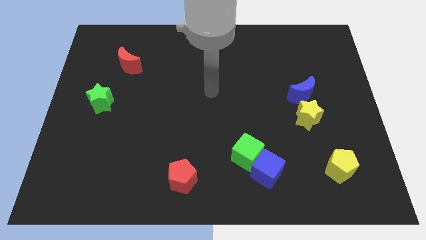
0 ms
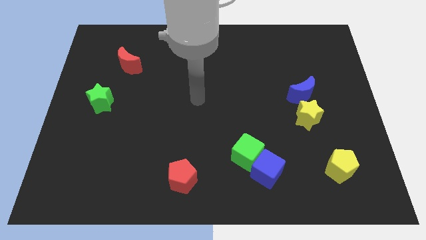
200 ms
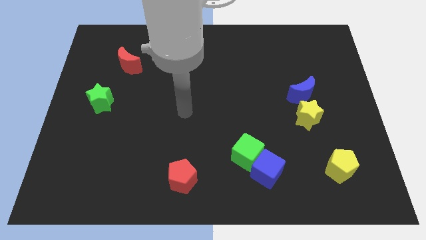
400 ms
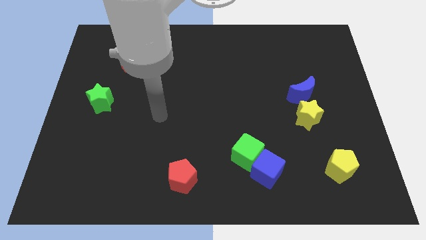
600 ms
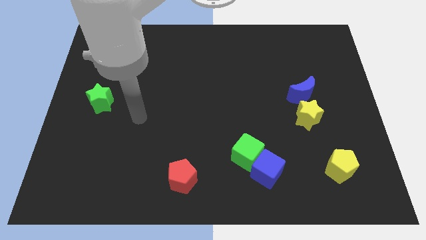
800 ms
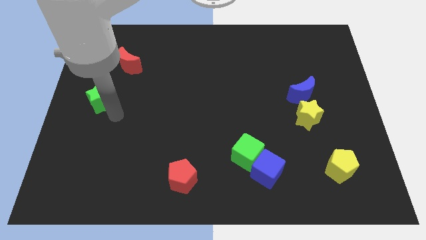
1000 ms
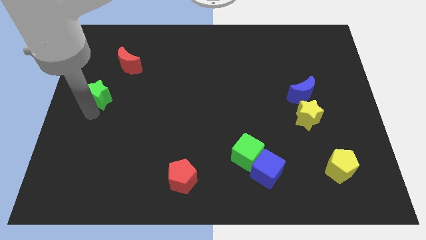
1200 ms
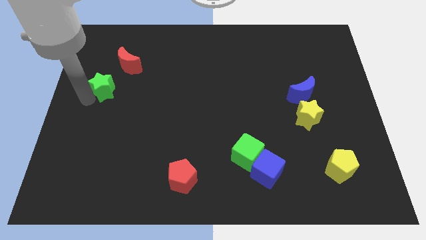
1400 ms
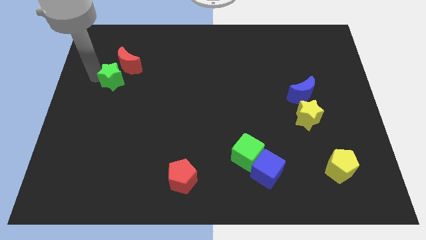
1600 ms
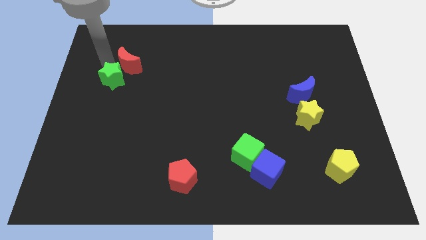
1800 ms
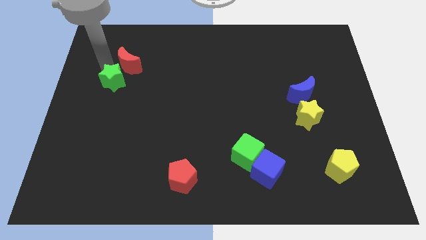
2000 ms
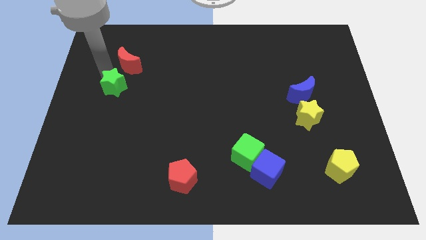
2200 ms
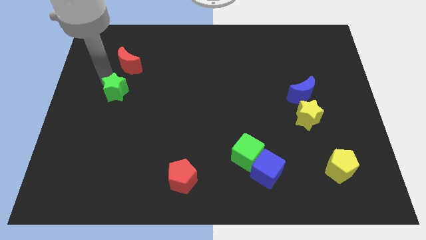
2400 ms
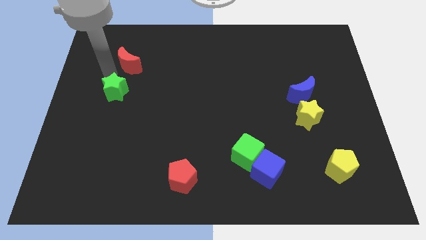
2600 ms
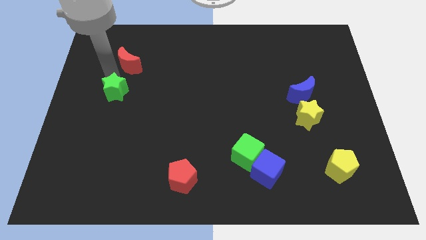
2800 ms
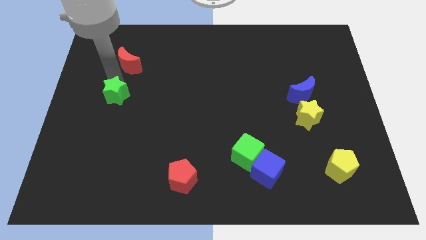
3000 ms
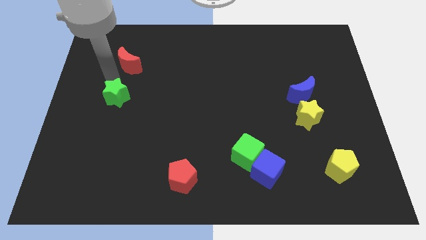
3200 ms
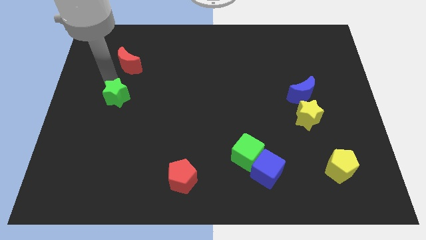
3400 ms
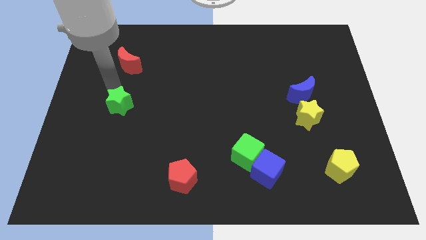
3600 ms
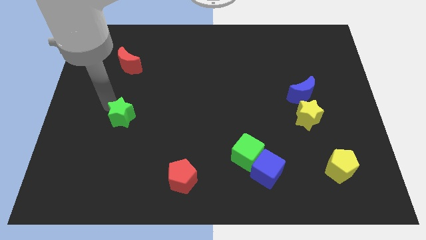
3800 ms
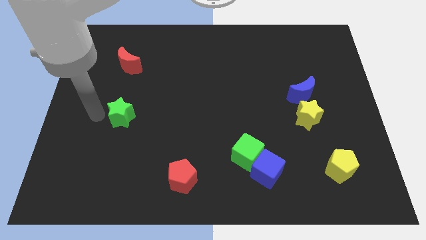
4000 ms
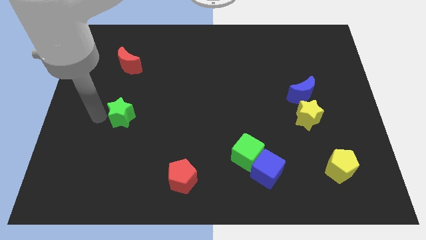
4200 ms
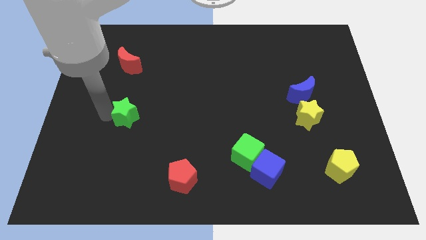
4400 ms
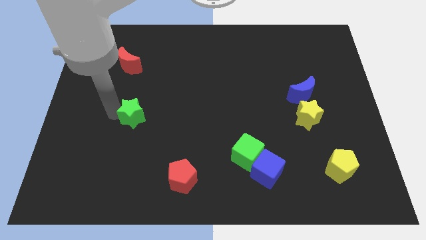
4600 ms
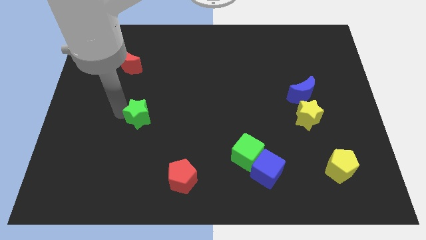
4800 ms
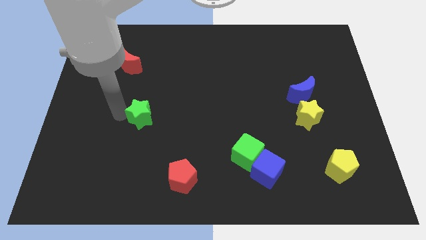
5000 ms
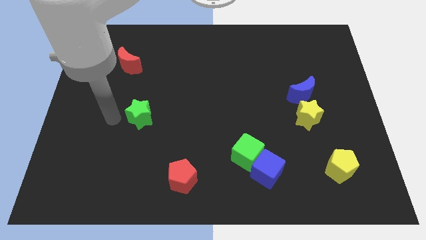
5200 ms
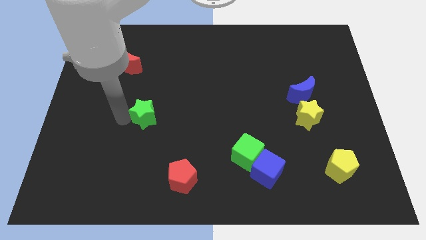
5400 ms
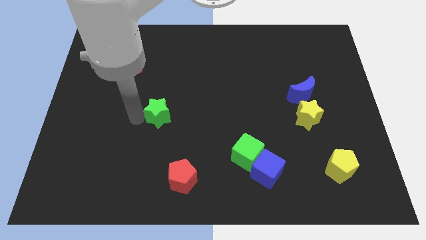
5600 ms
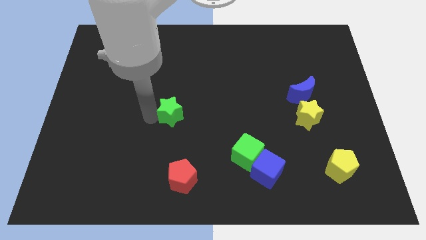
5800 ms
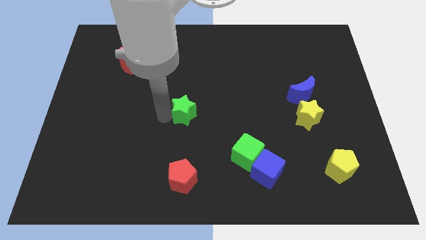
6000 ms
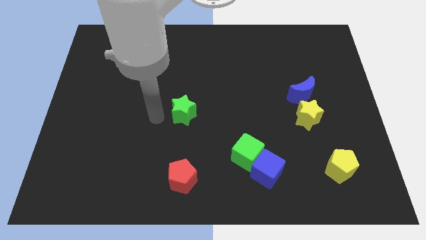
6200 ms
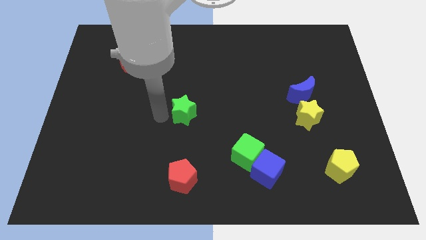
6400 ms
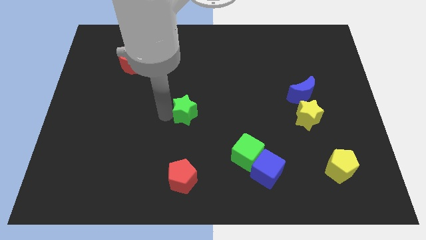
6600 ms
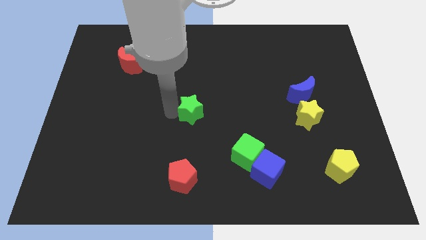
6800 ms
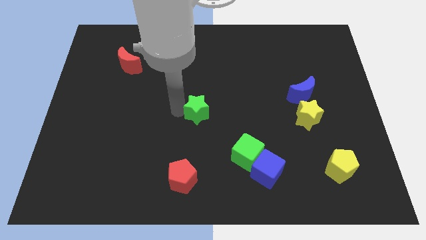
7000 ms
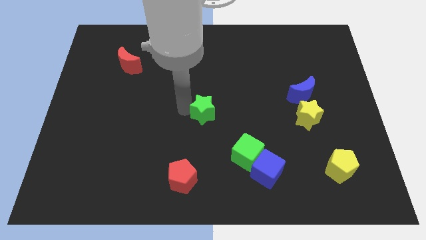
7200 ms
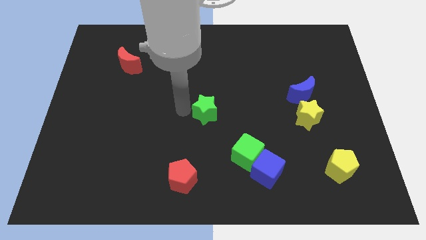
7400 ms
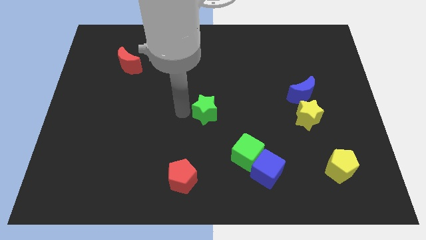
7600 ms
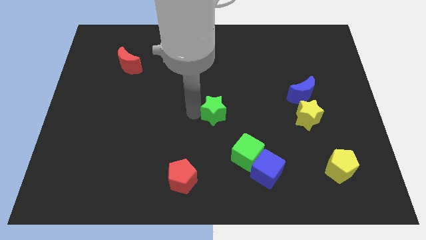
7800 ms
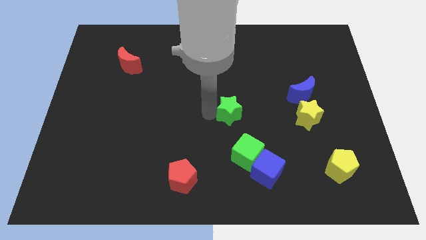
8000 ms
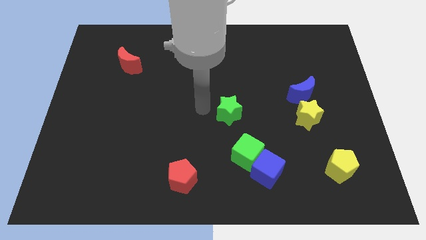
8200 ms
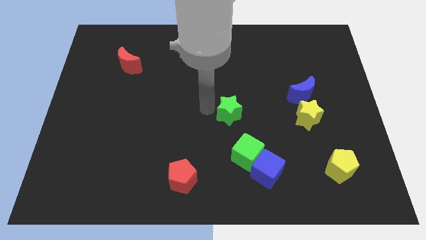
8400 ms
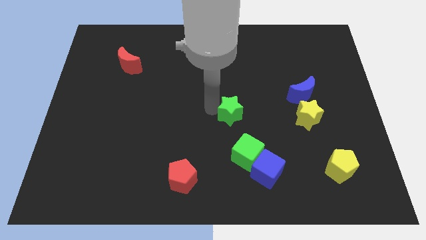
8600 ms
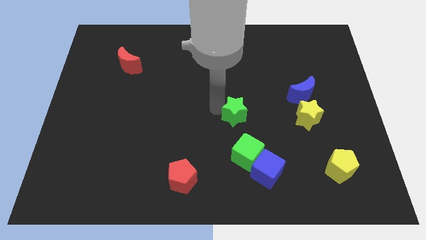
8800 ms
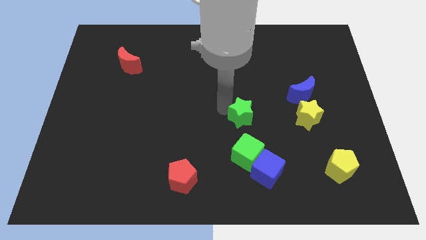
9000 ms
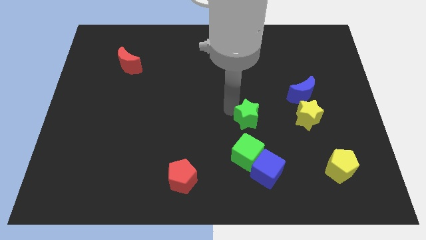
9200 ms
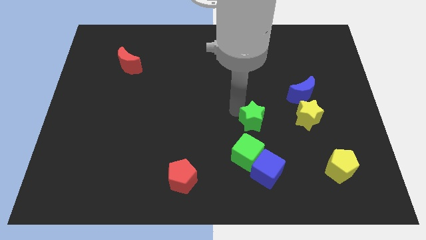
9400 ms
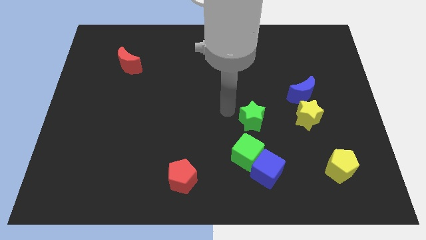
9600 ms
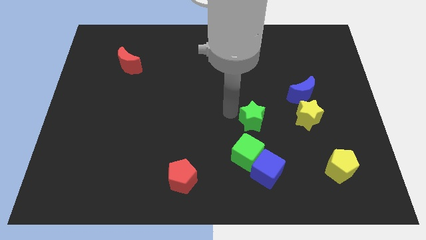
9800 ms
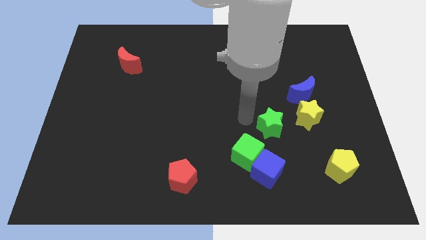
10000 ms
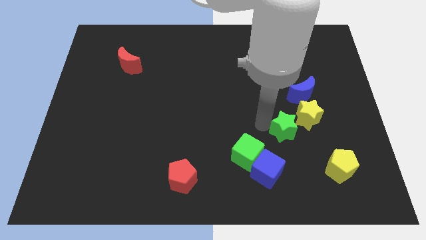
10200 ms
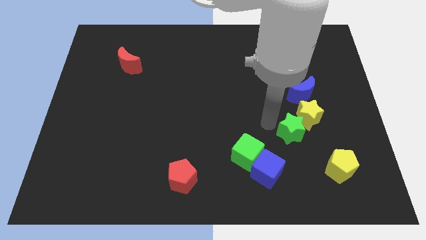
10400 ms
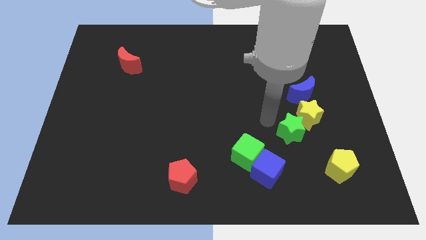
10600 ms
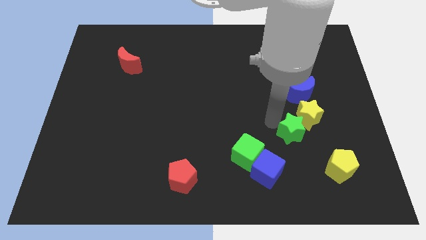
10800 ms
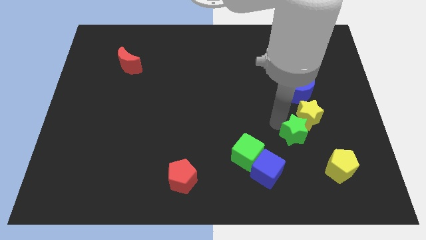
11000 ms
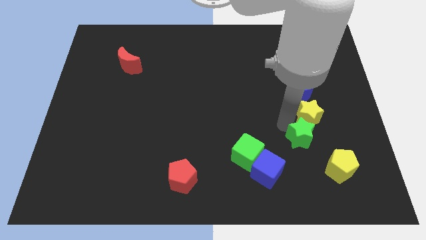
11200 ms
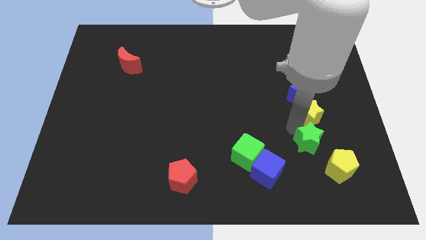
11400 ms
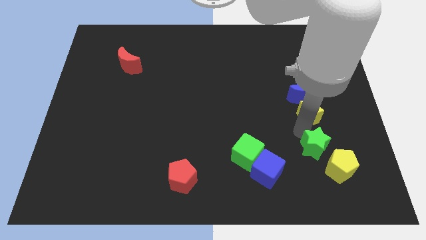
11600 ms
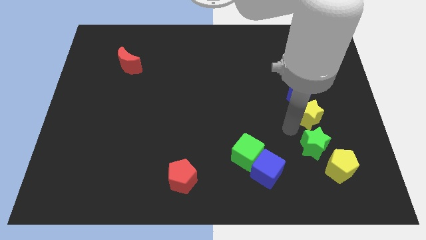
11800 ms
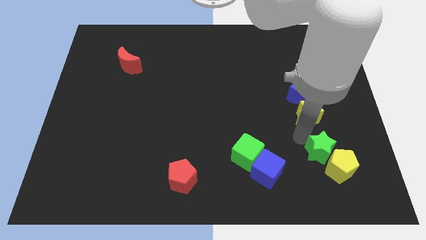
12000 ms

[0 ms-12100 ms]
push the green star towards the yellow pentagon

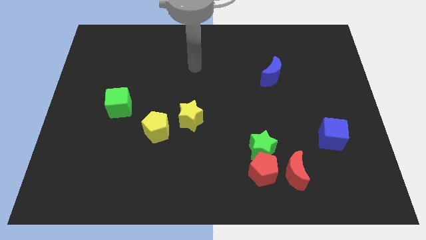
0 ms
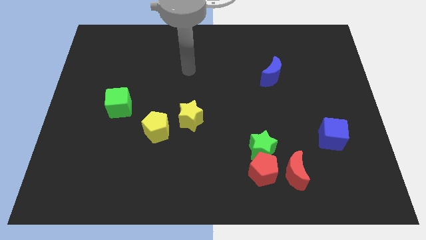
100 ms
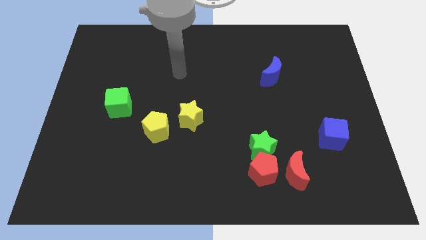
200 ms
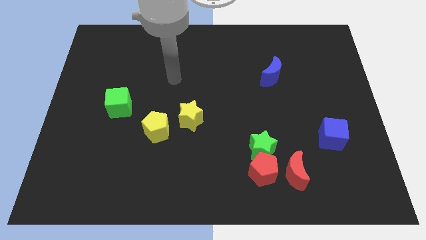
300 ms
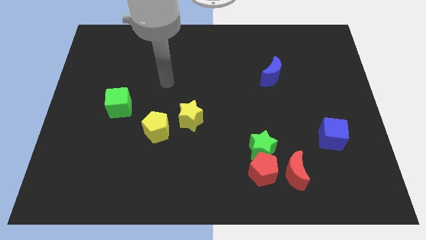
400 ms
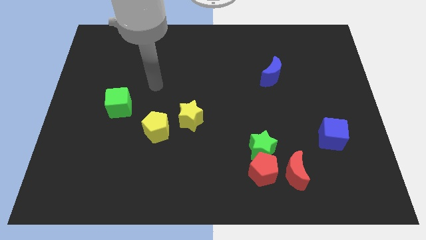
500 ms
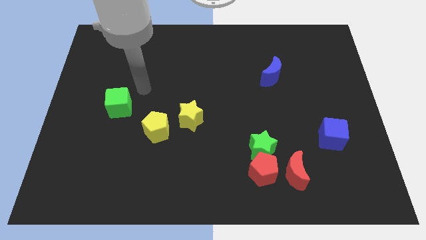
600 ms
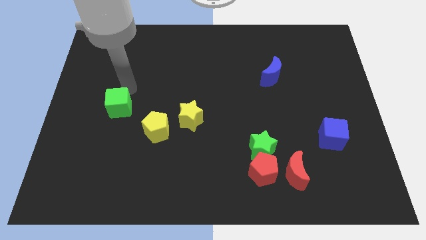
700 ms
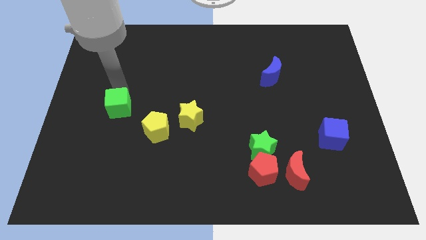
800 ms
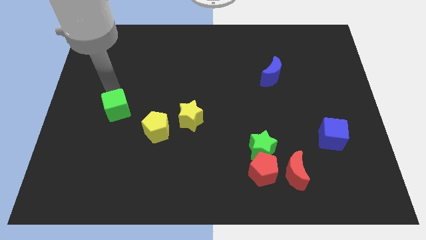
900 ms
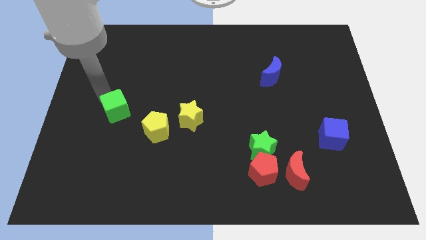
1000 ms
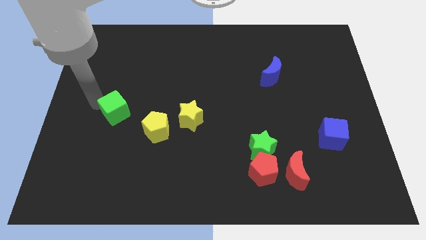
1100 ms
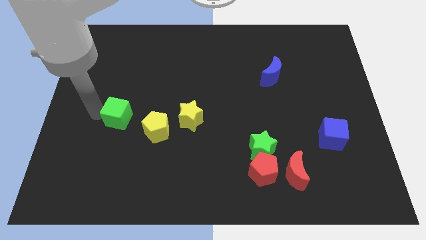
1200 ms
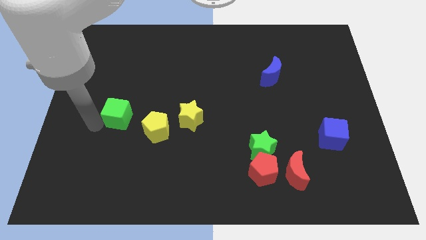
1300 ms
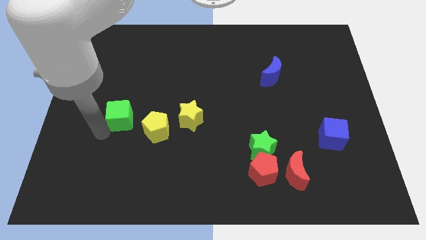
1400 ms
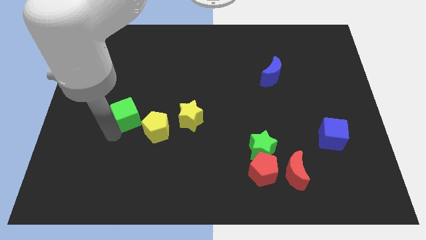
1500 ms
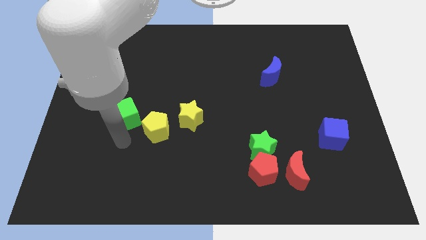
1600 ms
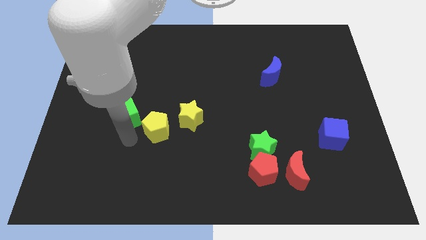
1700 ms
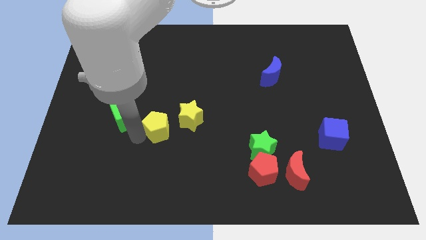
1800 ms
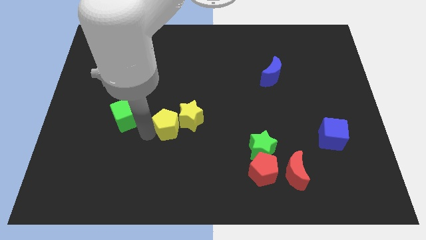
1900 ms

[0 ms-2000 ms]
slide the yellow pentagon next to the yellow star
